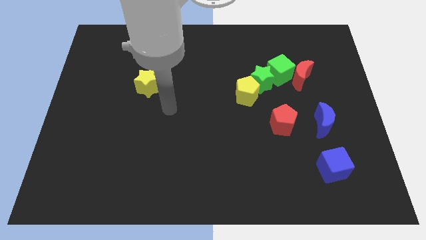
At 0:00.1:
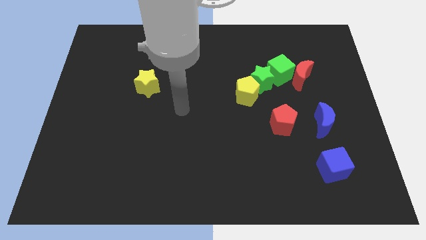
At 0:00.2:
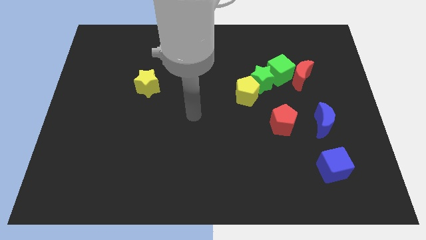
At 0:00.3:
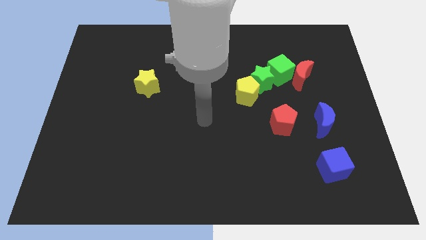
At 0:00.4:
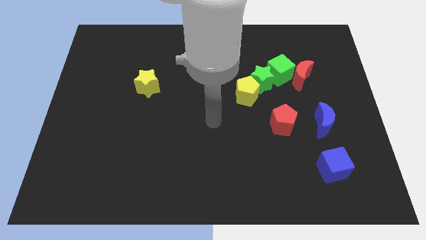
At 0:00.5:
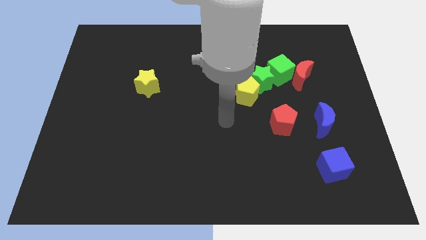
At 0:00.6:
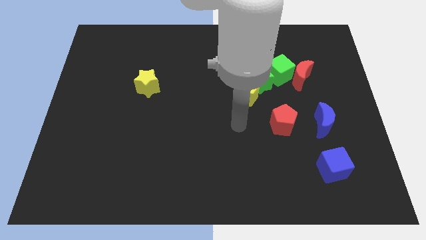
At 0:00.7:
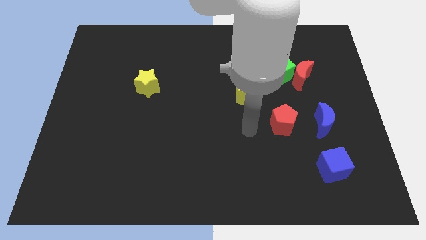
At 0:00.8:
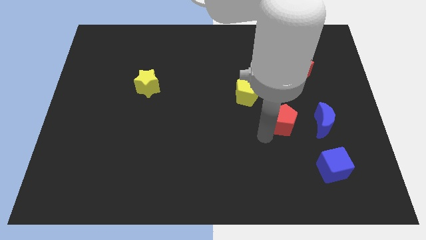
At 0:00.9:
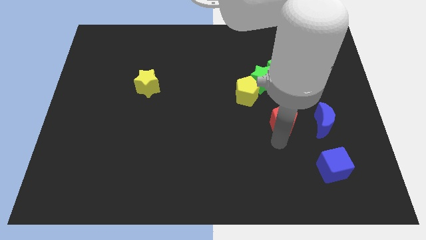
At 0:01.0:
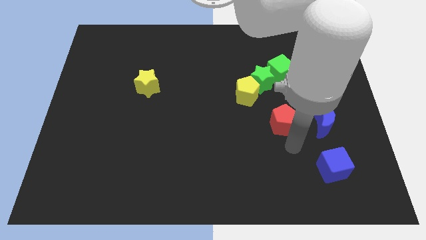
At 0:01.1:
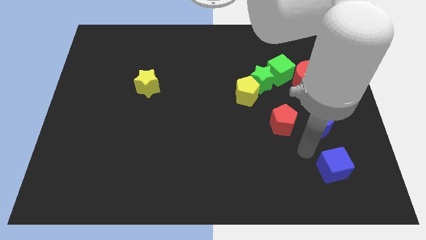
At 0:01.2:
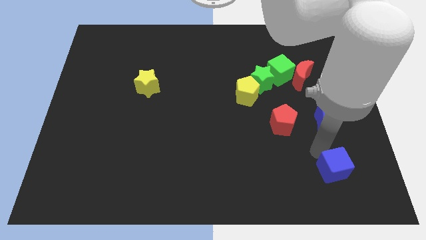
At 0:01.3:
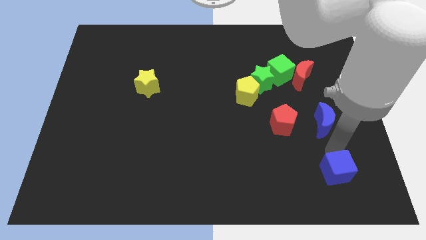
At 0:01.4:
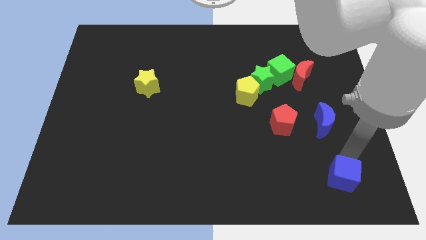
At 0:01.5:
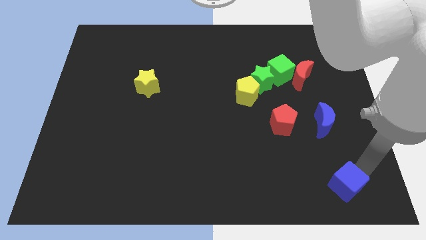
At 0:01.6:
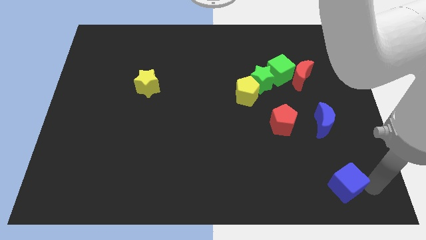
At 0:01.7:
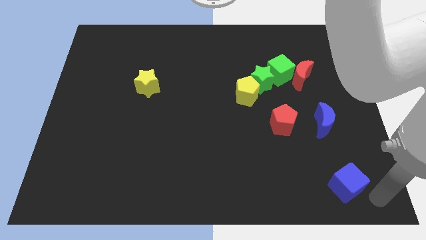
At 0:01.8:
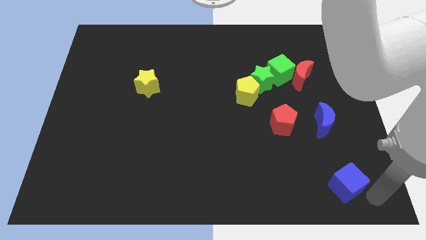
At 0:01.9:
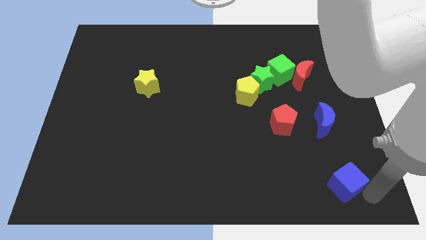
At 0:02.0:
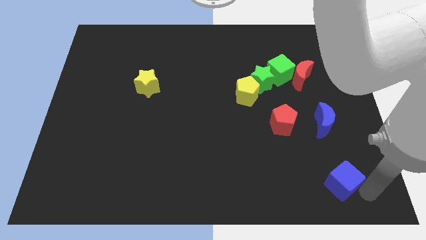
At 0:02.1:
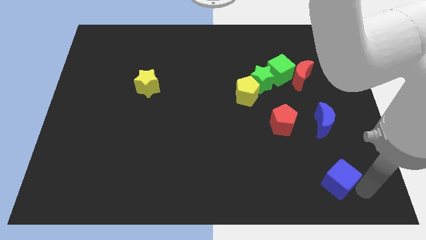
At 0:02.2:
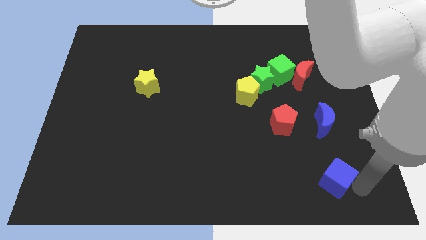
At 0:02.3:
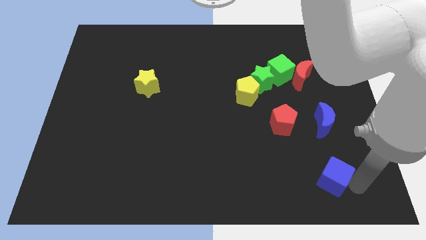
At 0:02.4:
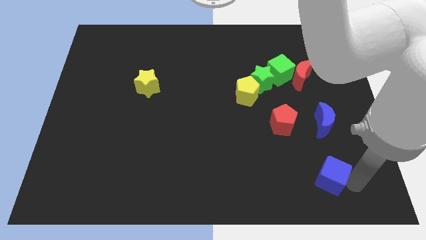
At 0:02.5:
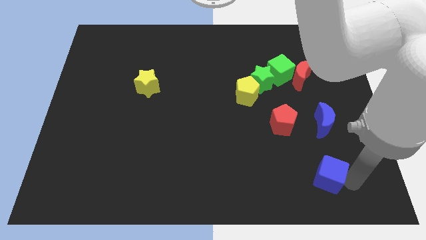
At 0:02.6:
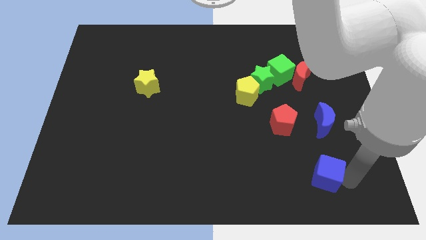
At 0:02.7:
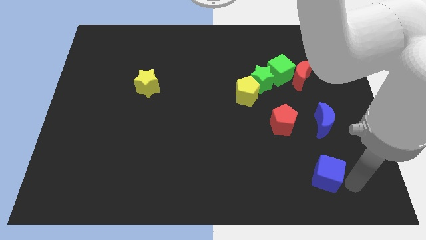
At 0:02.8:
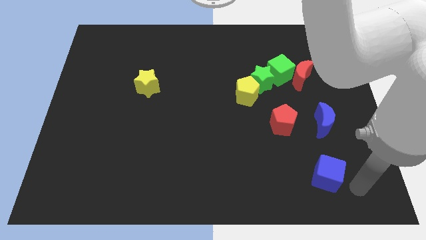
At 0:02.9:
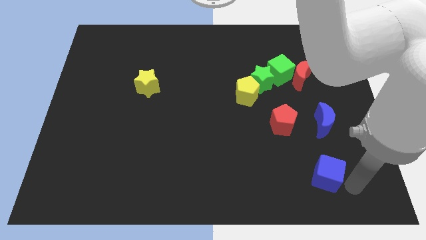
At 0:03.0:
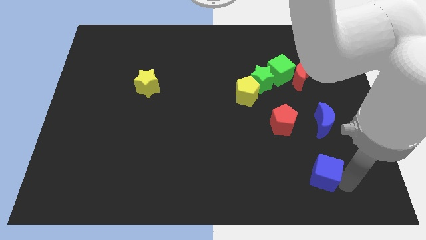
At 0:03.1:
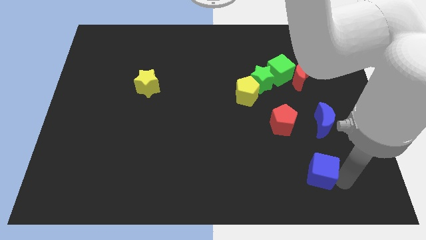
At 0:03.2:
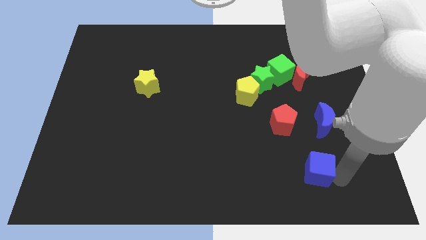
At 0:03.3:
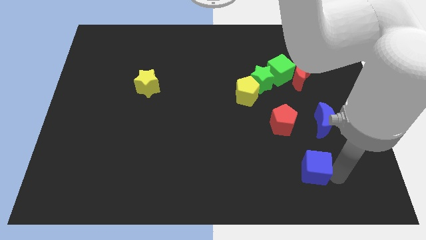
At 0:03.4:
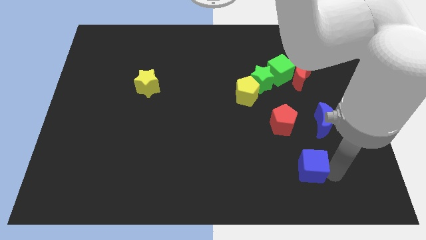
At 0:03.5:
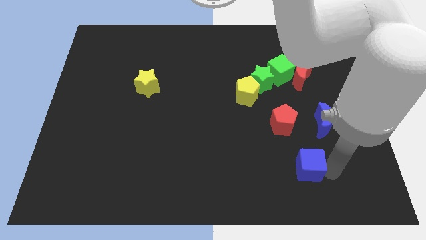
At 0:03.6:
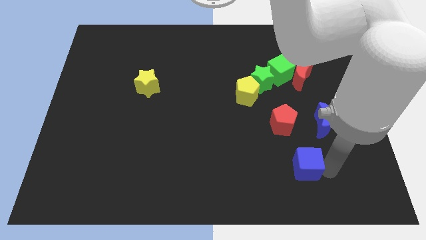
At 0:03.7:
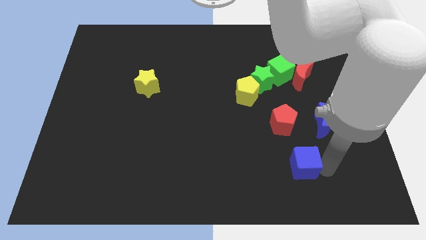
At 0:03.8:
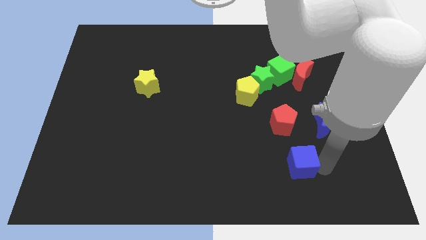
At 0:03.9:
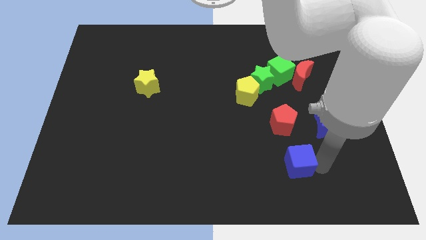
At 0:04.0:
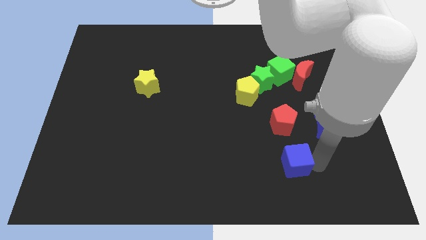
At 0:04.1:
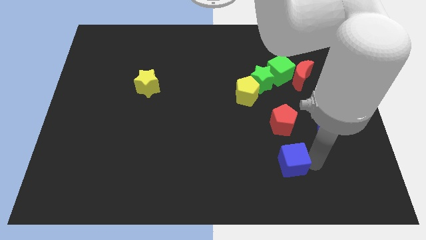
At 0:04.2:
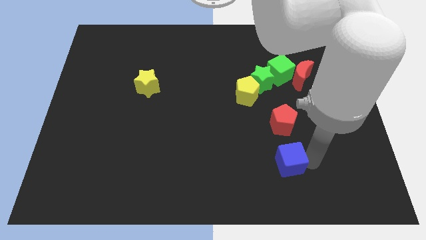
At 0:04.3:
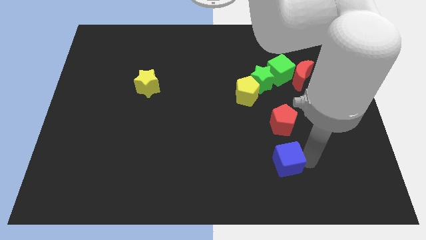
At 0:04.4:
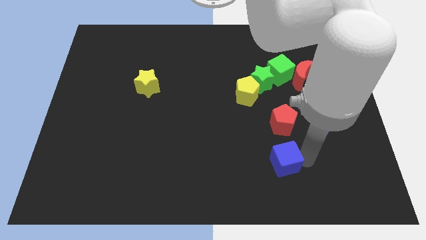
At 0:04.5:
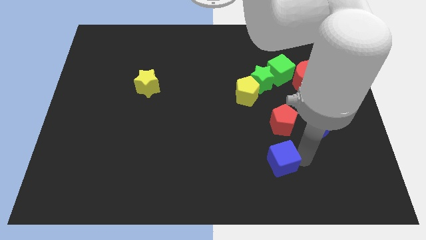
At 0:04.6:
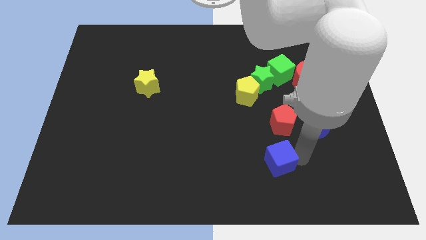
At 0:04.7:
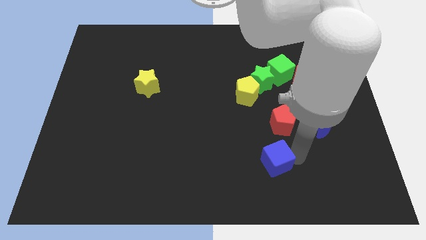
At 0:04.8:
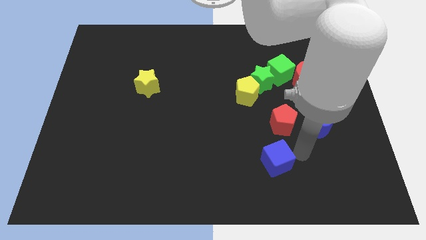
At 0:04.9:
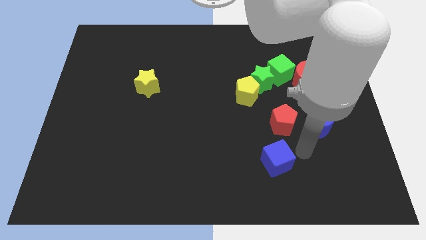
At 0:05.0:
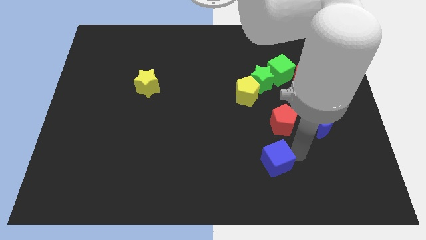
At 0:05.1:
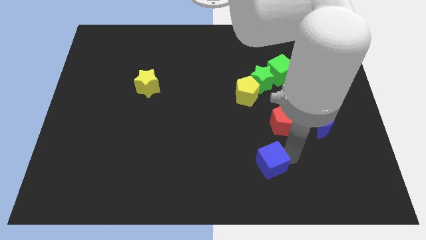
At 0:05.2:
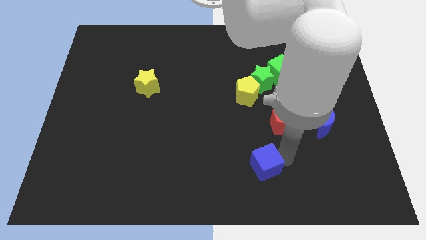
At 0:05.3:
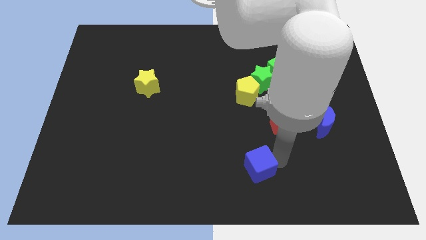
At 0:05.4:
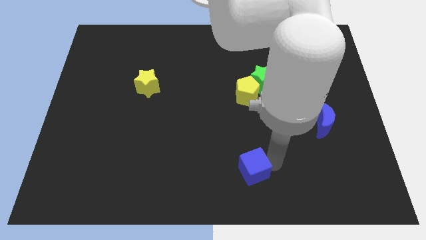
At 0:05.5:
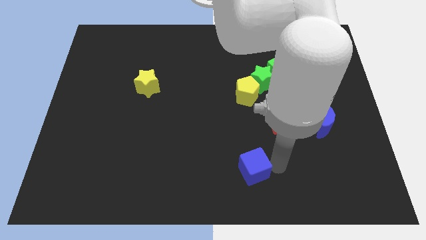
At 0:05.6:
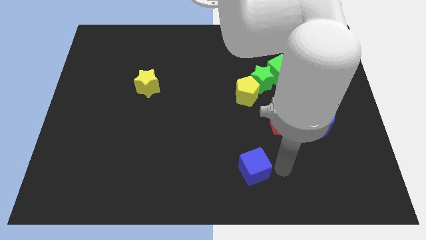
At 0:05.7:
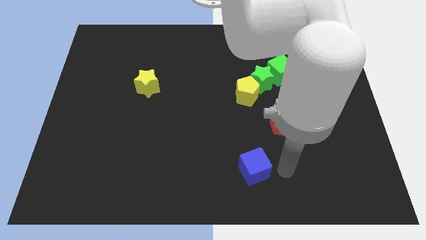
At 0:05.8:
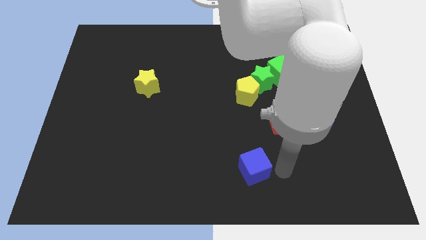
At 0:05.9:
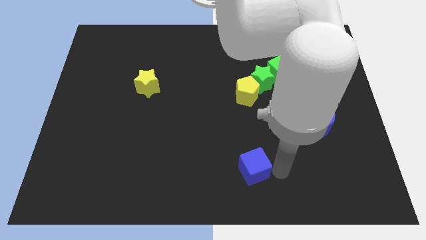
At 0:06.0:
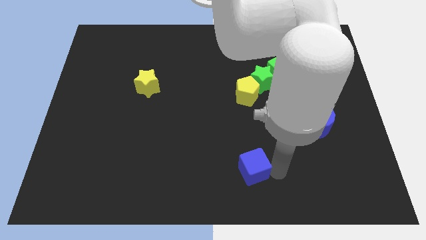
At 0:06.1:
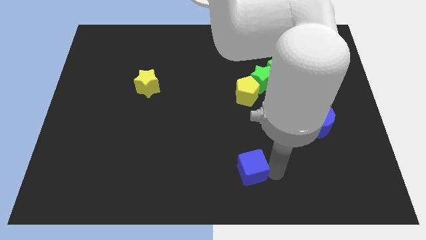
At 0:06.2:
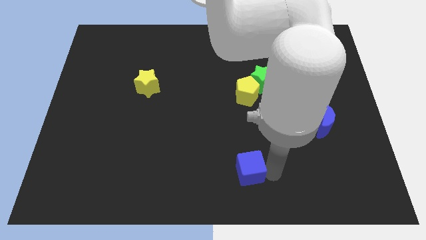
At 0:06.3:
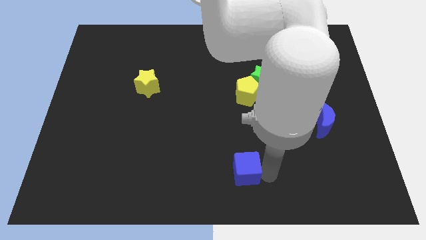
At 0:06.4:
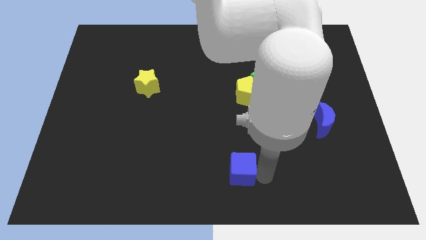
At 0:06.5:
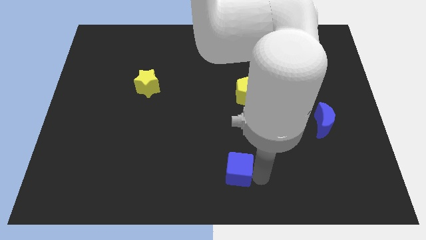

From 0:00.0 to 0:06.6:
move the blue cube to the left

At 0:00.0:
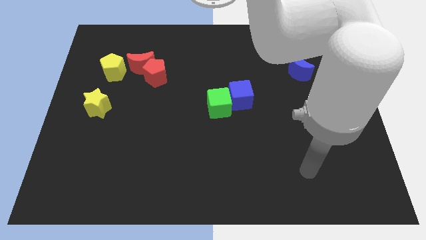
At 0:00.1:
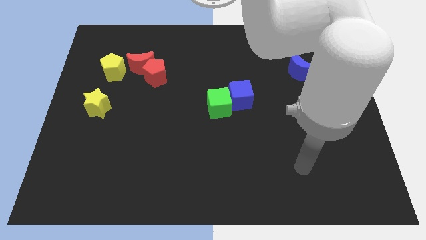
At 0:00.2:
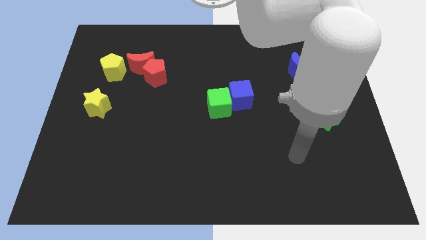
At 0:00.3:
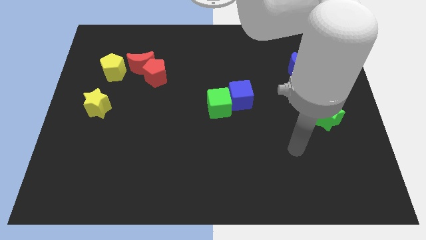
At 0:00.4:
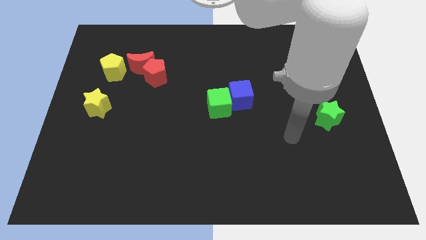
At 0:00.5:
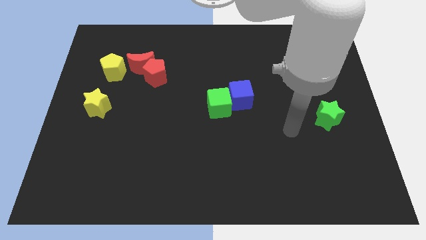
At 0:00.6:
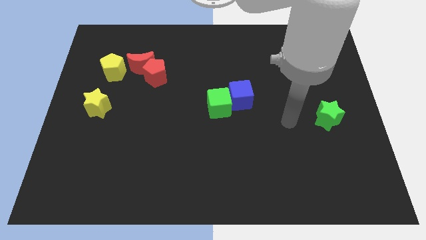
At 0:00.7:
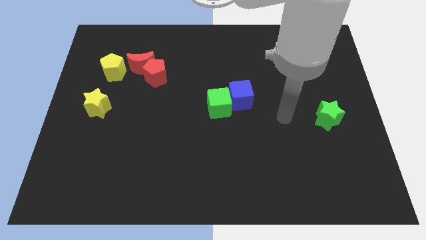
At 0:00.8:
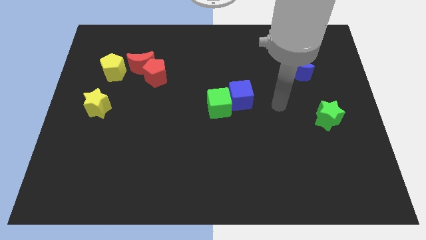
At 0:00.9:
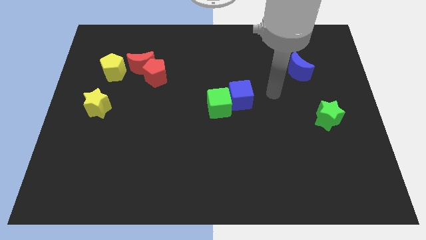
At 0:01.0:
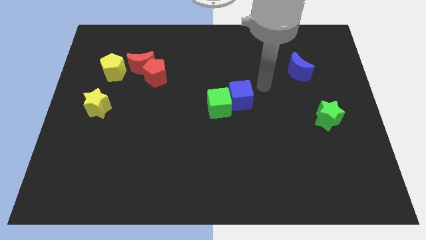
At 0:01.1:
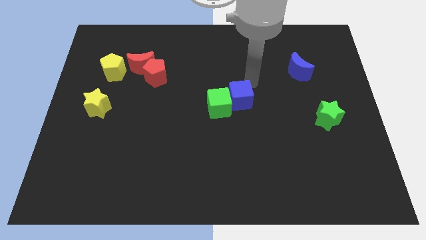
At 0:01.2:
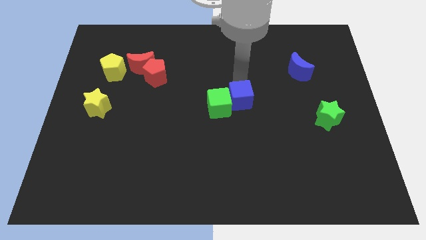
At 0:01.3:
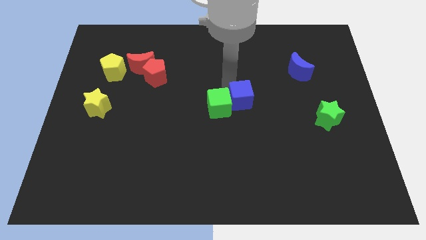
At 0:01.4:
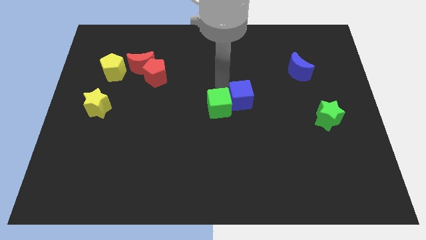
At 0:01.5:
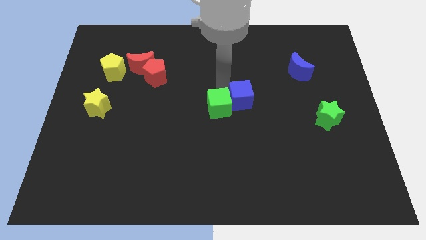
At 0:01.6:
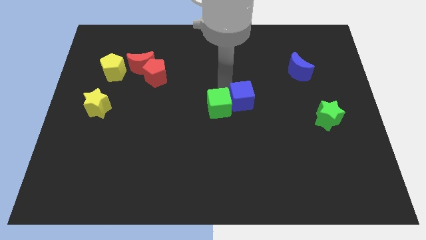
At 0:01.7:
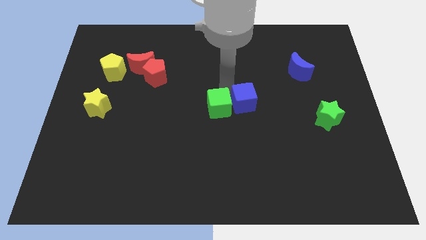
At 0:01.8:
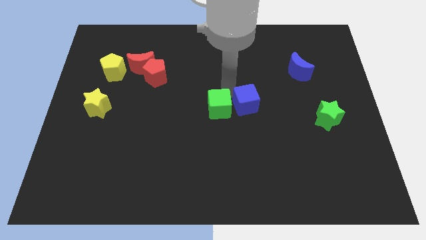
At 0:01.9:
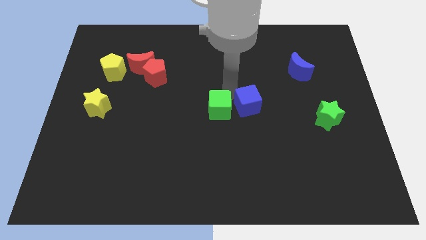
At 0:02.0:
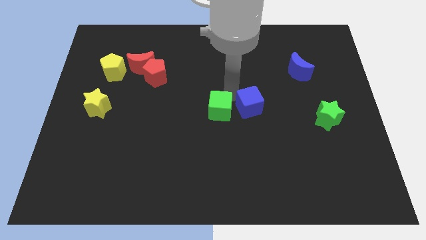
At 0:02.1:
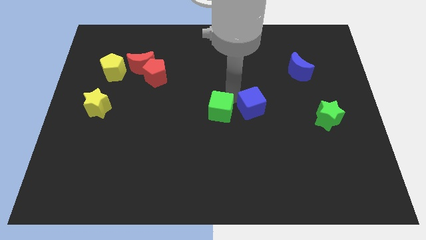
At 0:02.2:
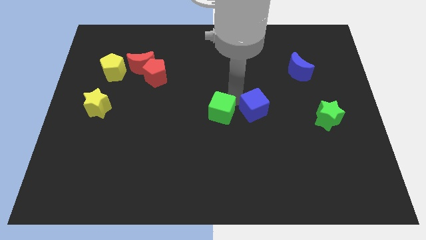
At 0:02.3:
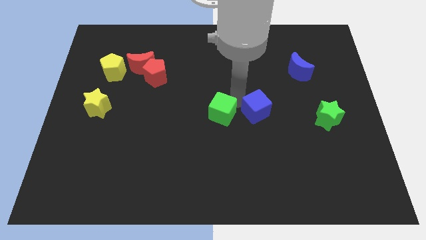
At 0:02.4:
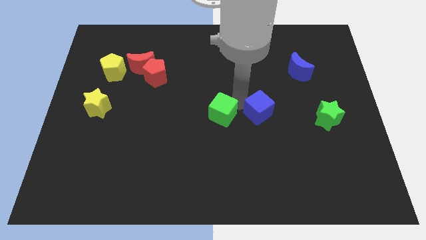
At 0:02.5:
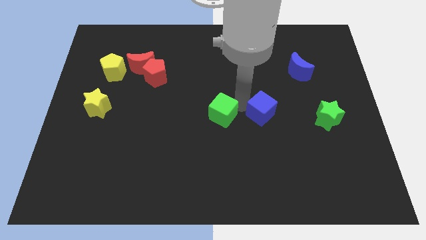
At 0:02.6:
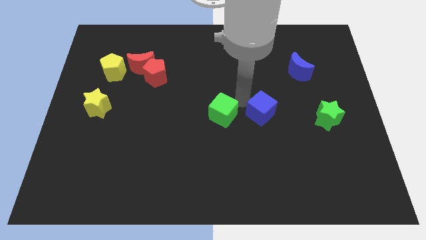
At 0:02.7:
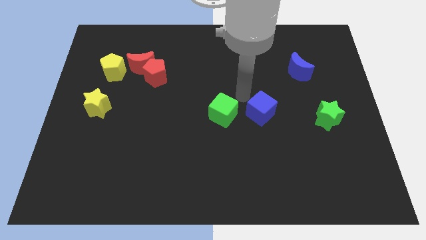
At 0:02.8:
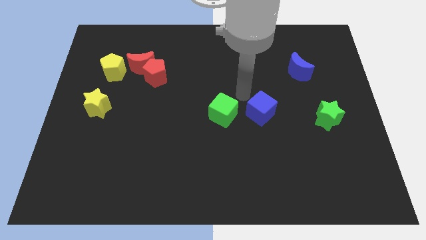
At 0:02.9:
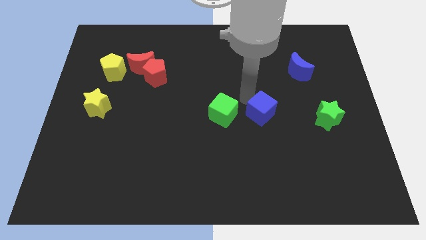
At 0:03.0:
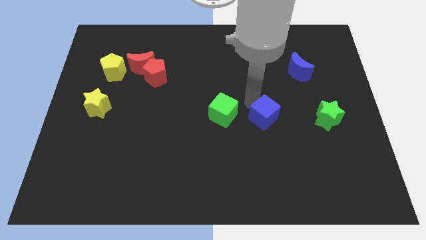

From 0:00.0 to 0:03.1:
push the blue cube downwards and right a little
